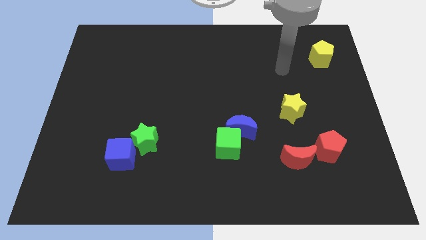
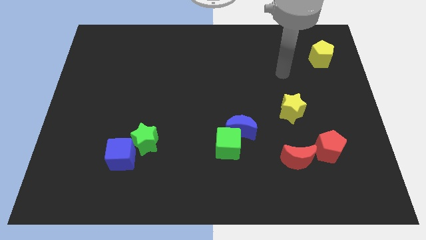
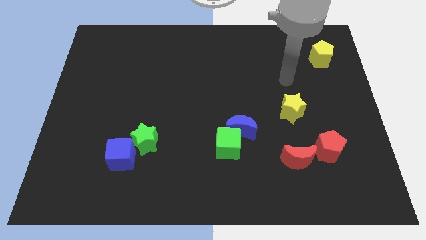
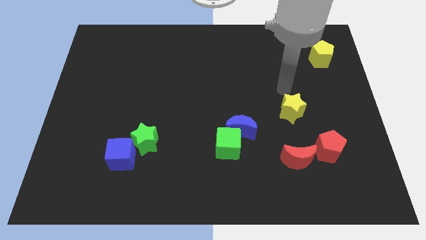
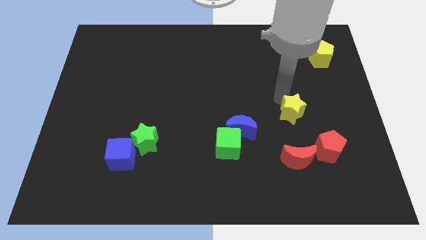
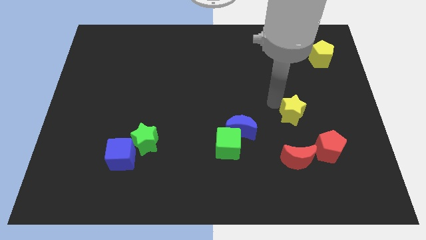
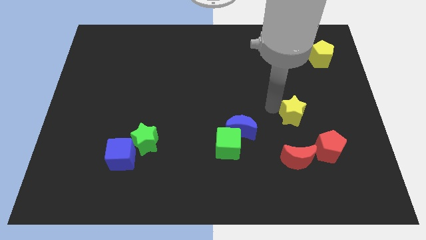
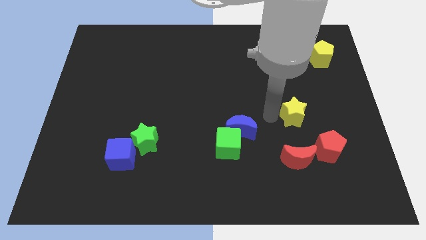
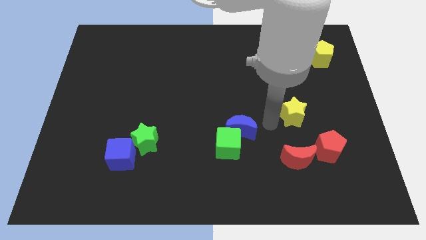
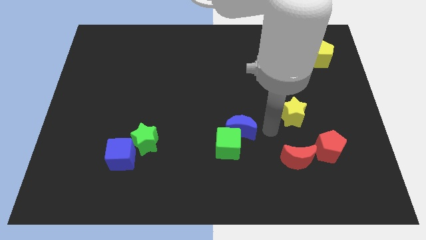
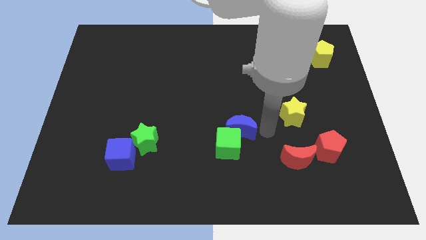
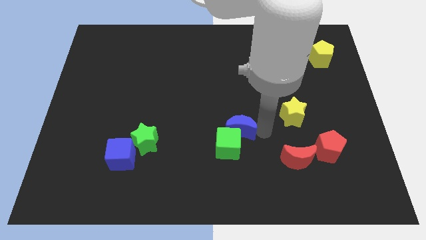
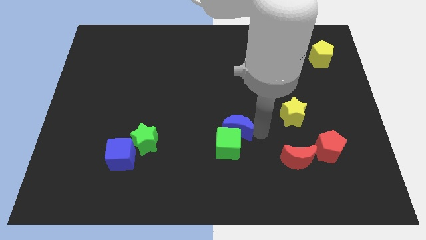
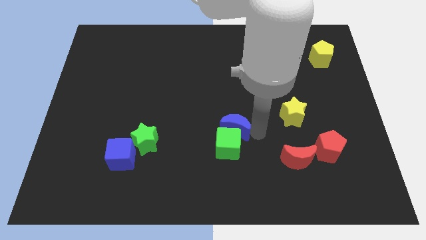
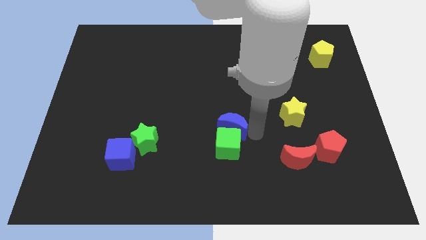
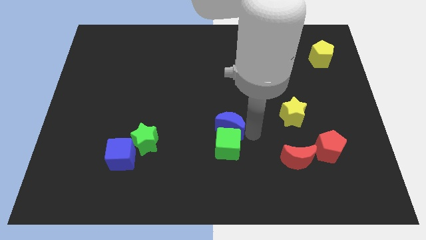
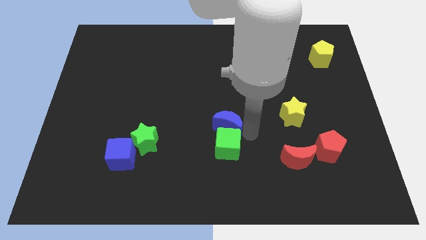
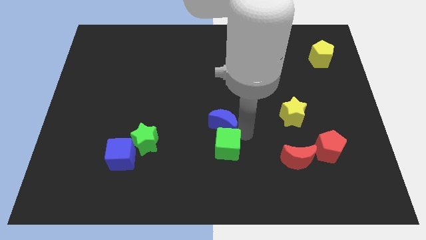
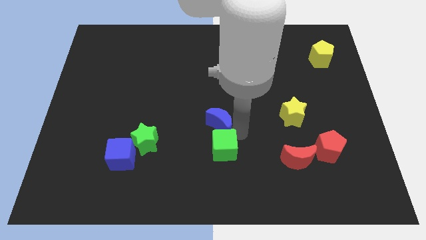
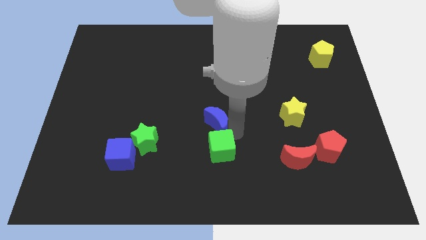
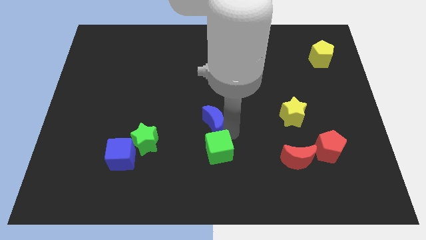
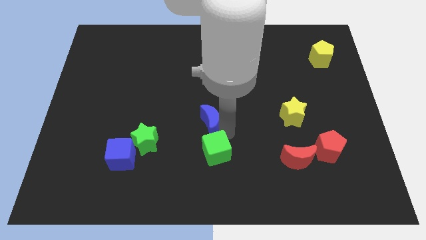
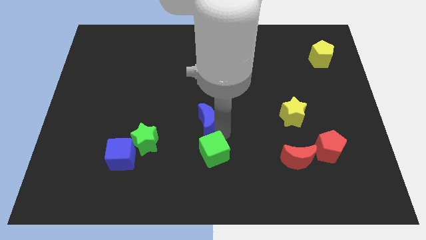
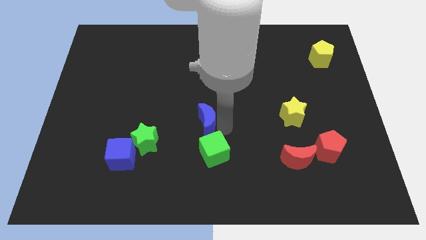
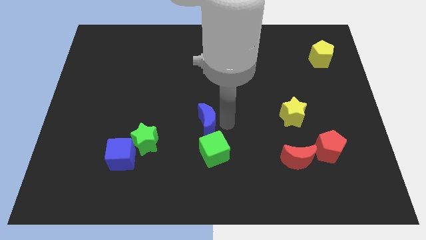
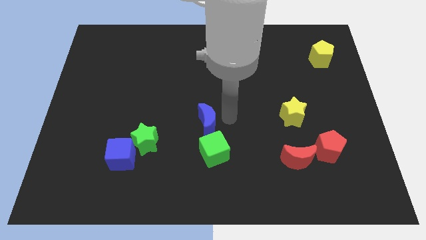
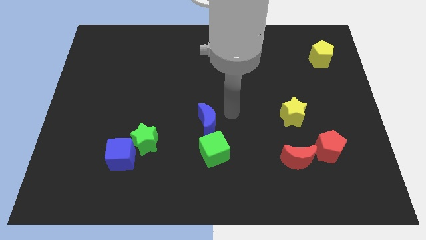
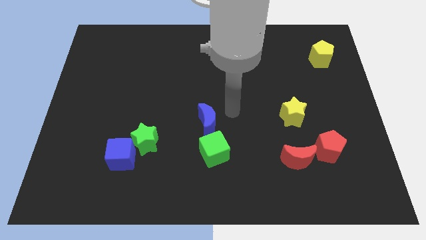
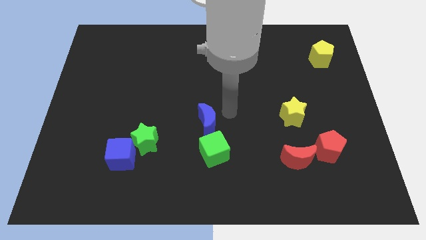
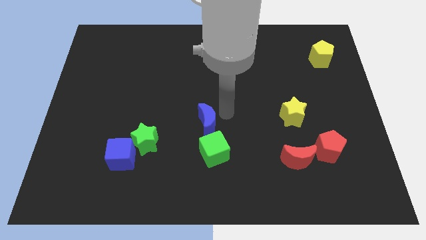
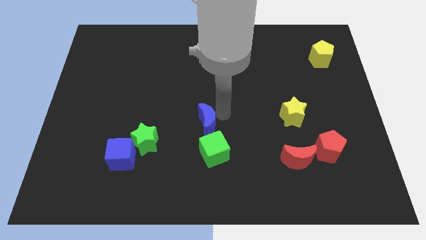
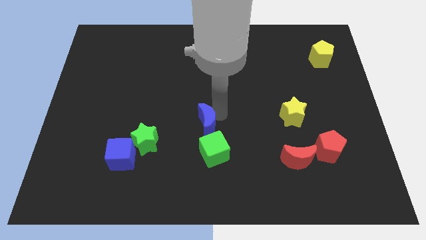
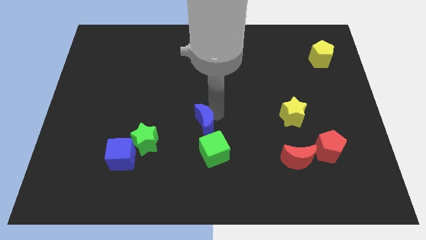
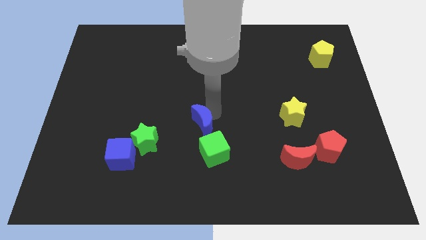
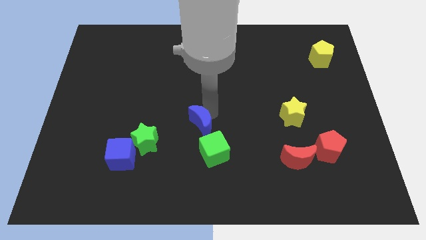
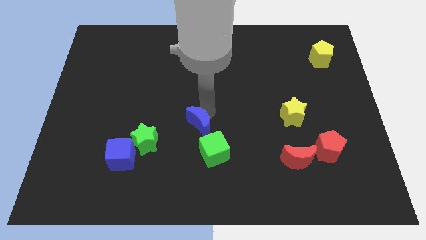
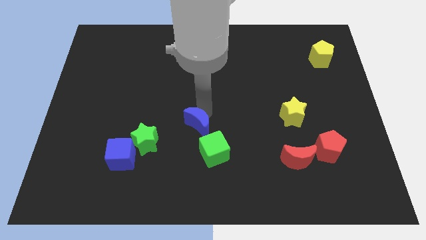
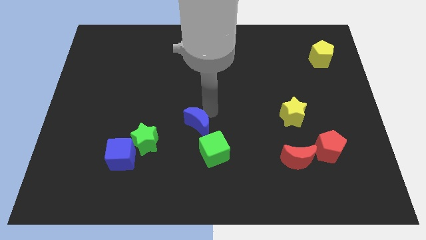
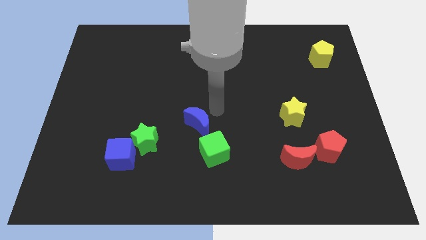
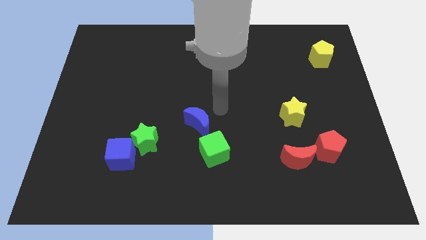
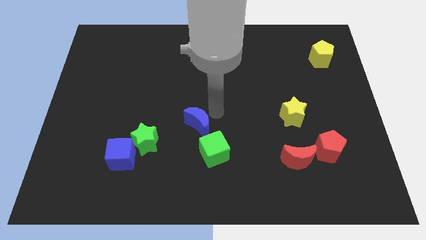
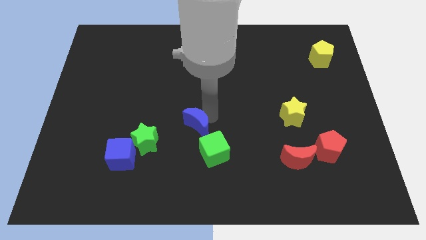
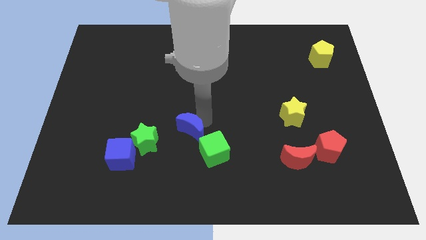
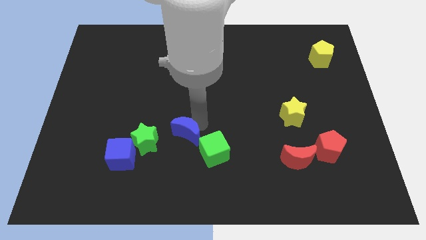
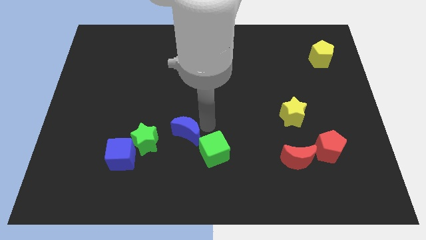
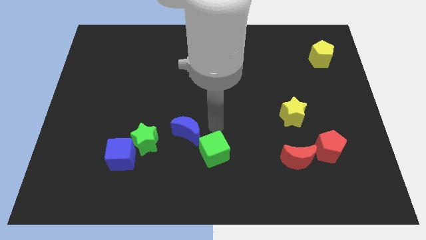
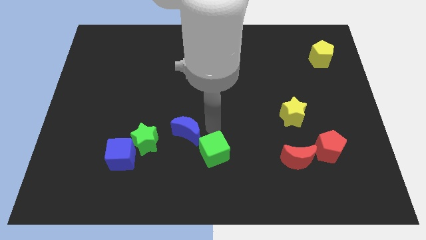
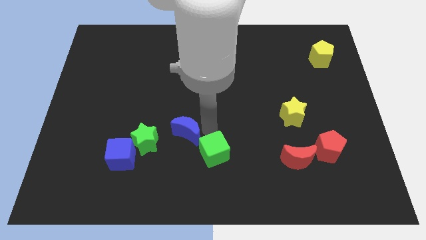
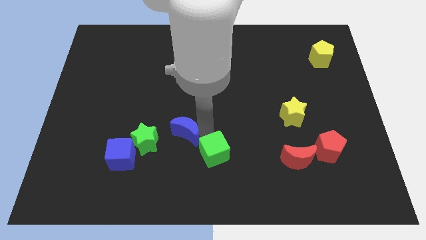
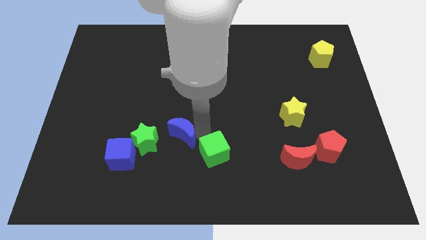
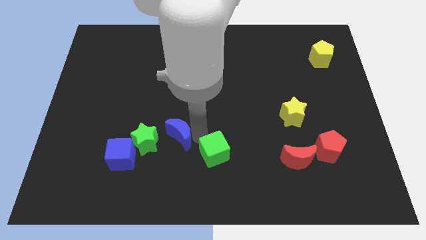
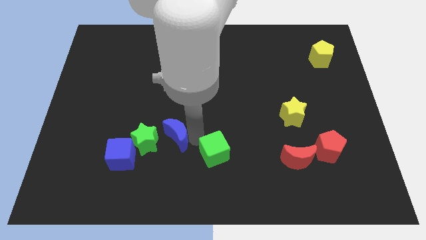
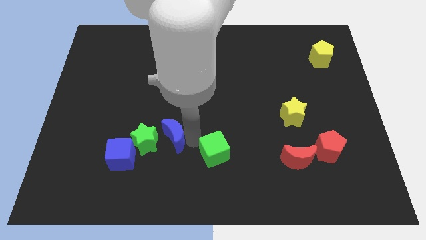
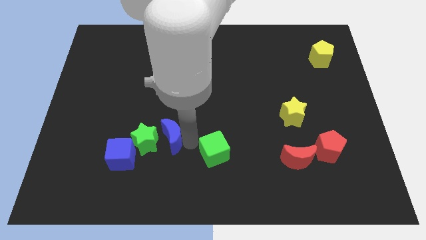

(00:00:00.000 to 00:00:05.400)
put the blue moon next to the green star

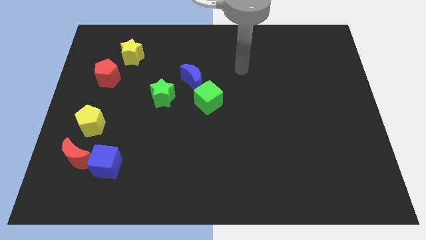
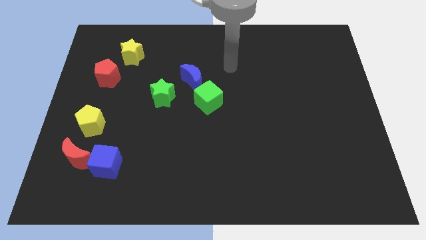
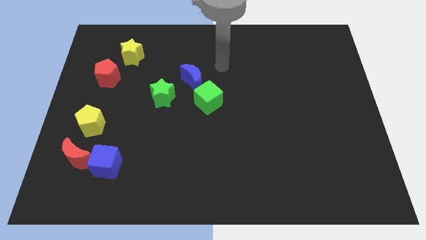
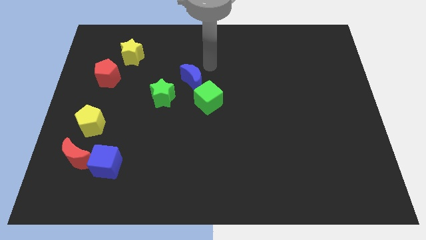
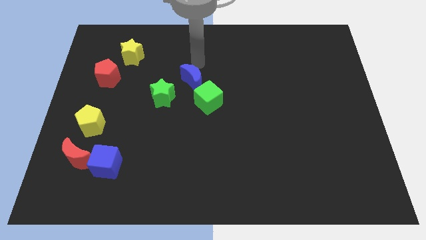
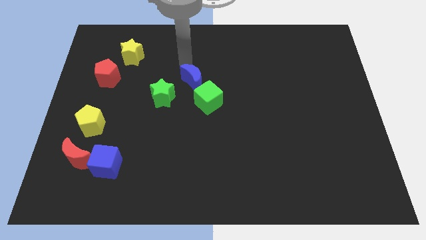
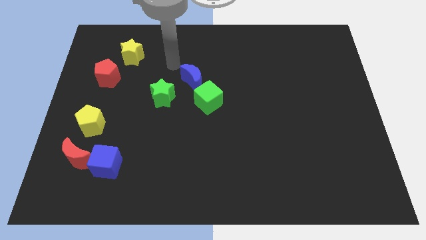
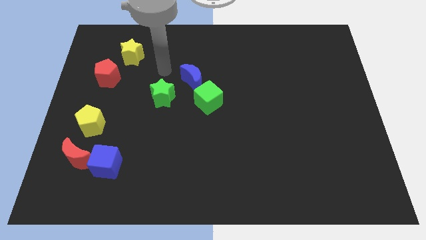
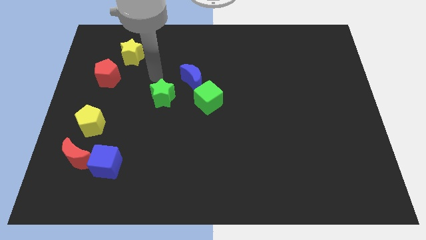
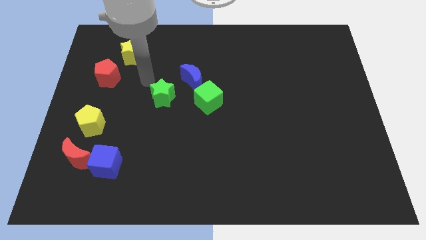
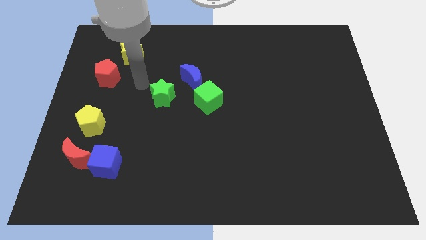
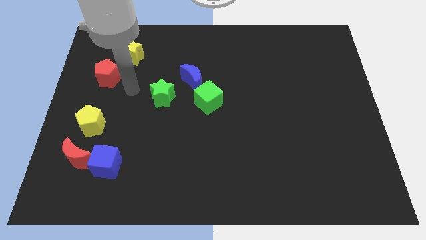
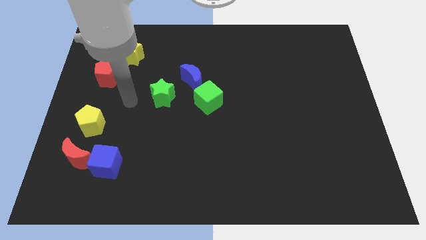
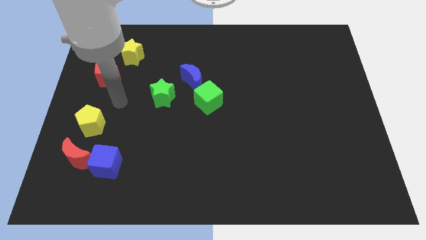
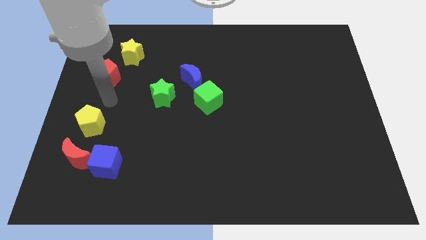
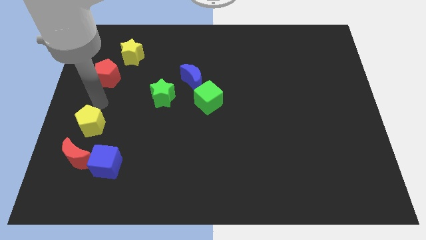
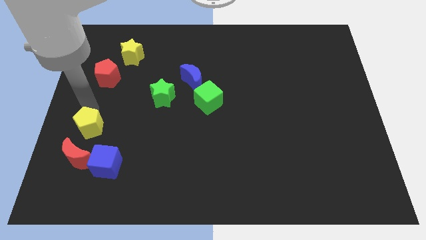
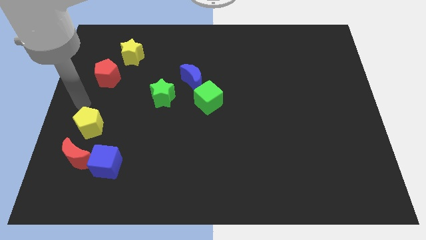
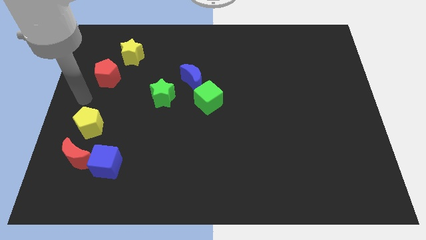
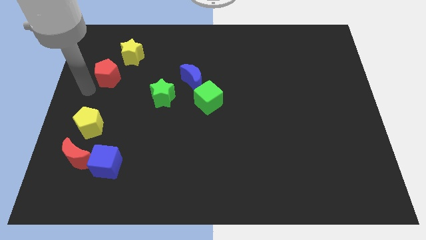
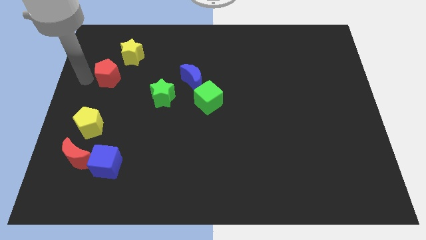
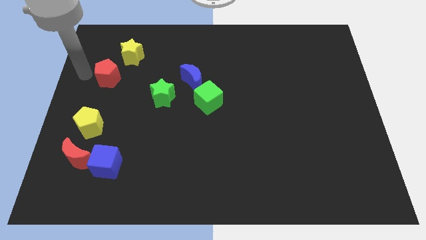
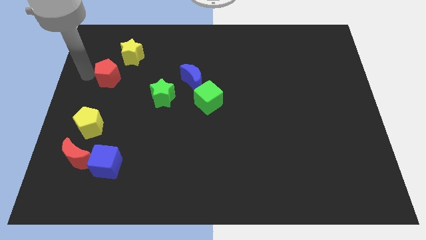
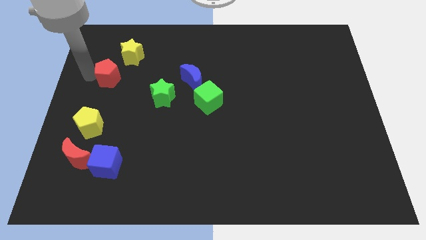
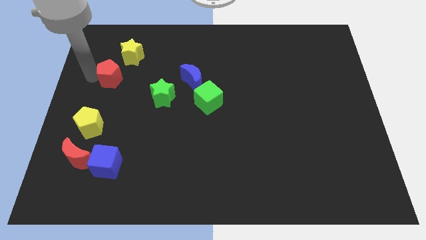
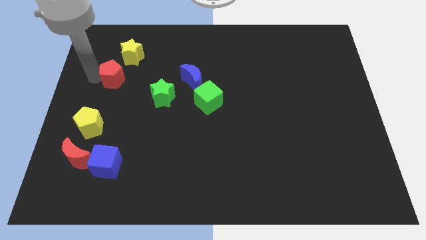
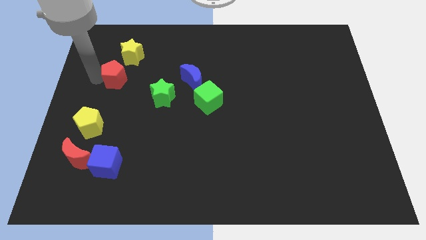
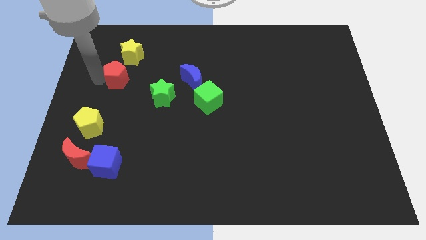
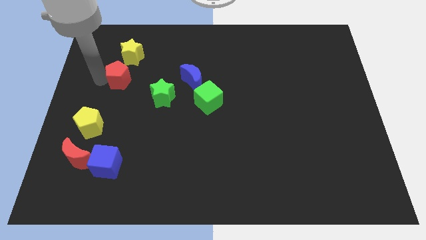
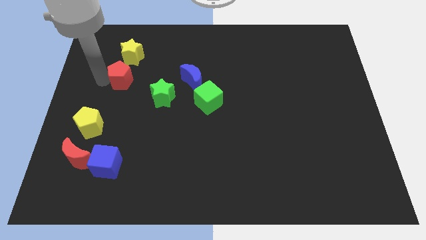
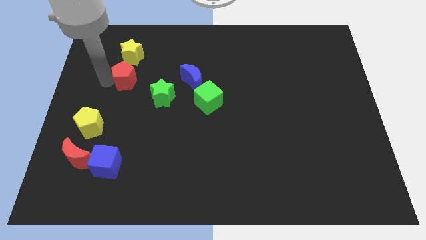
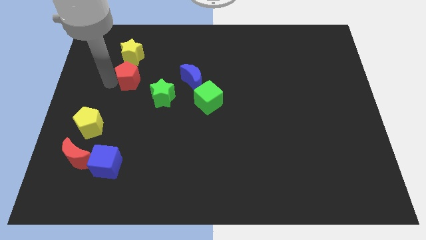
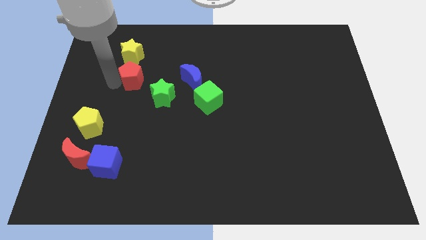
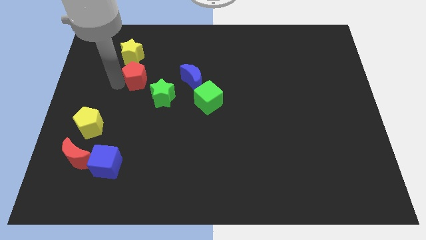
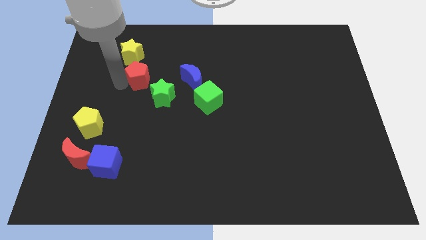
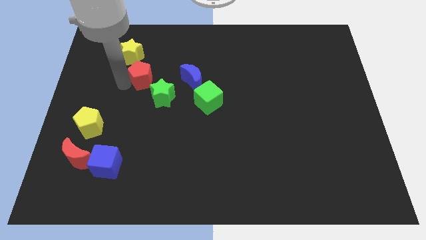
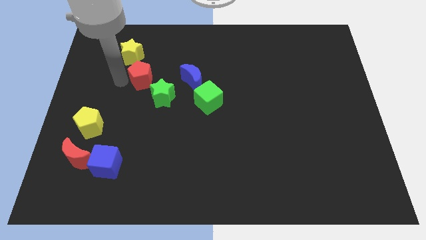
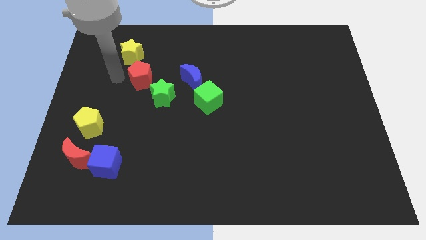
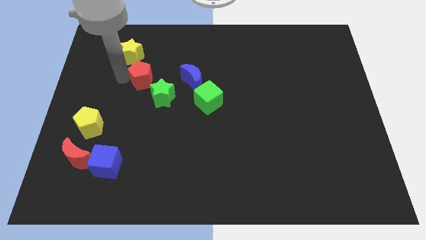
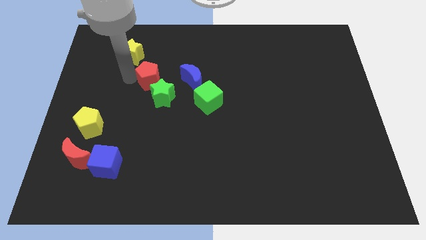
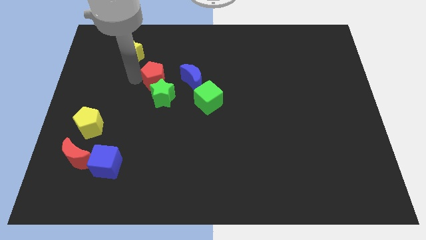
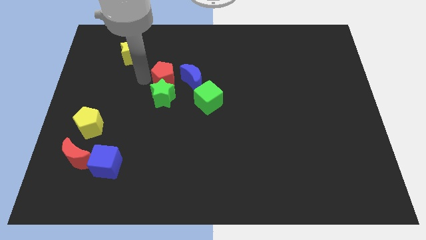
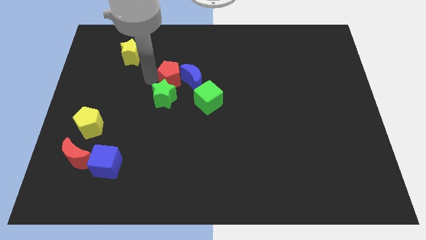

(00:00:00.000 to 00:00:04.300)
put the red pentagon close to the blue moon
